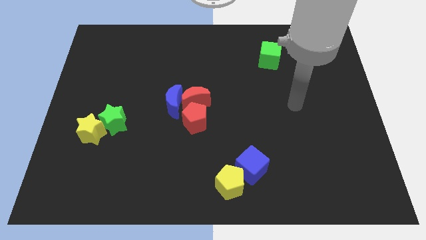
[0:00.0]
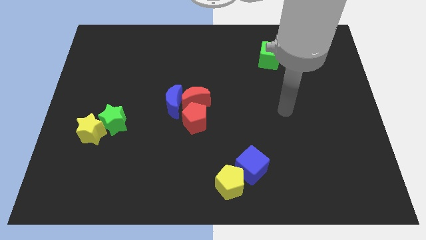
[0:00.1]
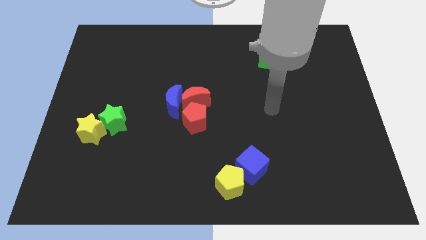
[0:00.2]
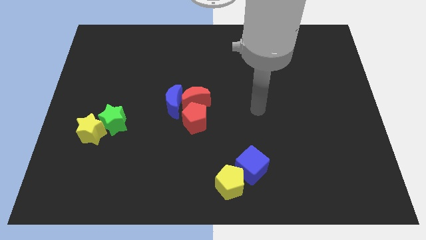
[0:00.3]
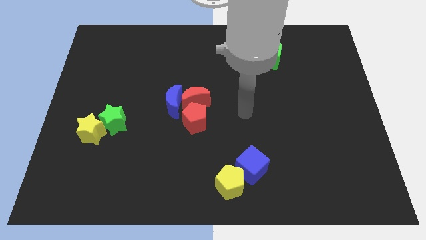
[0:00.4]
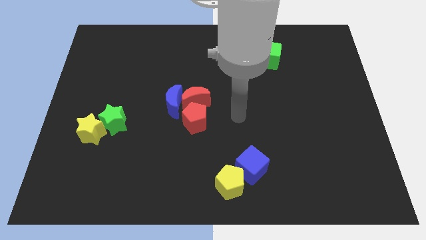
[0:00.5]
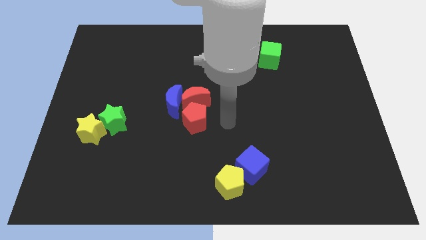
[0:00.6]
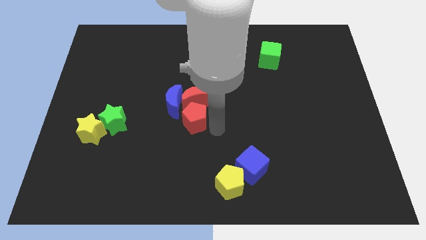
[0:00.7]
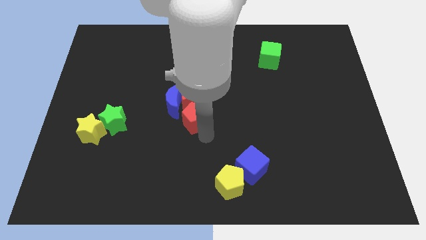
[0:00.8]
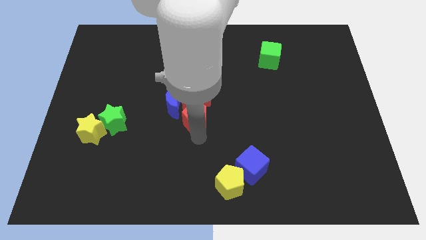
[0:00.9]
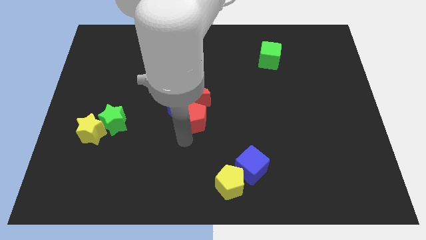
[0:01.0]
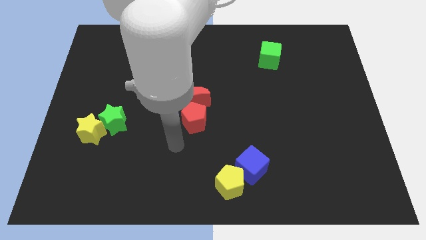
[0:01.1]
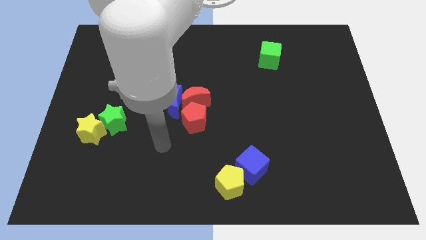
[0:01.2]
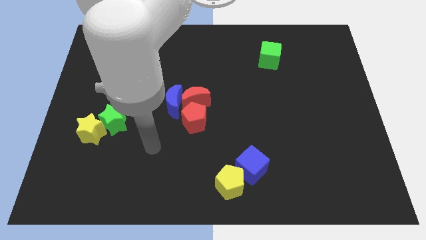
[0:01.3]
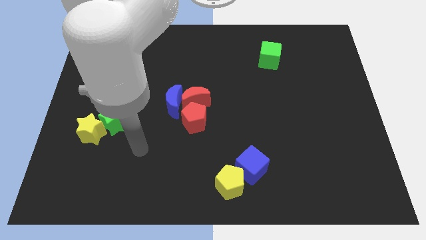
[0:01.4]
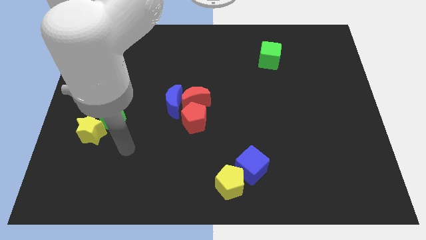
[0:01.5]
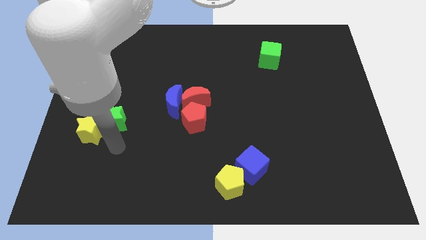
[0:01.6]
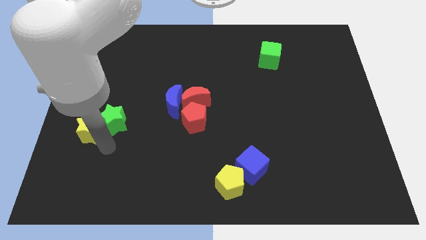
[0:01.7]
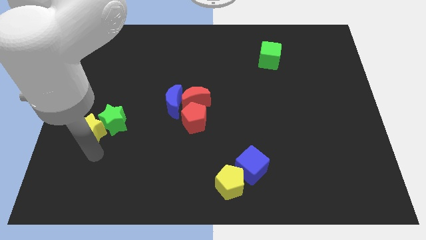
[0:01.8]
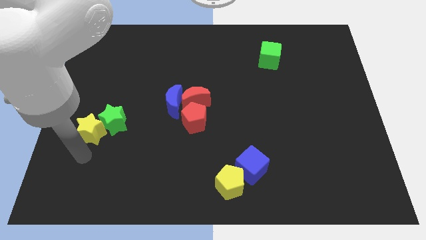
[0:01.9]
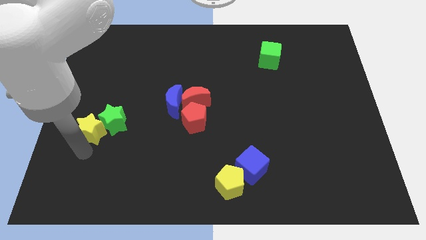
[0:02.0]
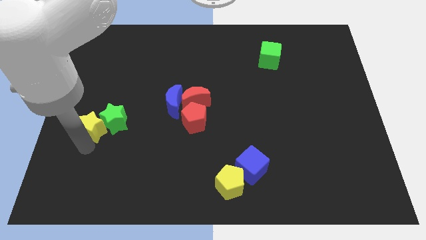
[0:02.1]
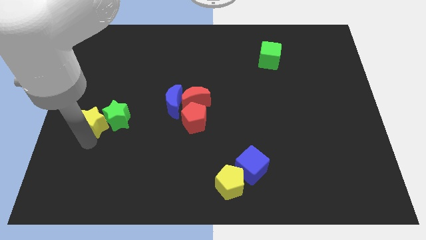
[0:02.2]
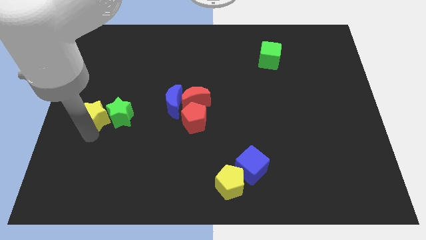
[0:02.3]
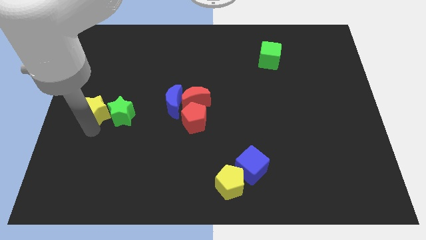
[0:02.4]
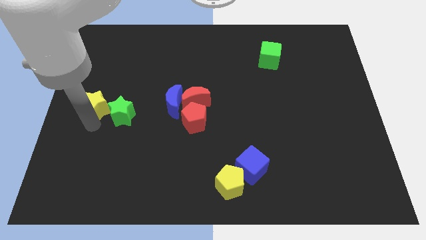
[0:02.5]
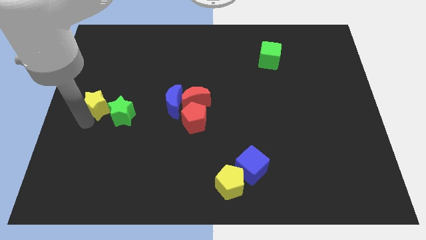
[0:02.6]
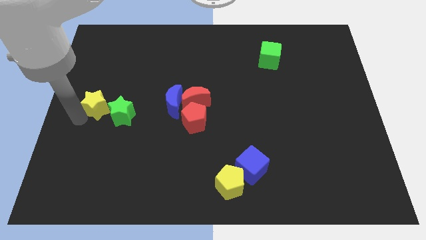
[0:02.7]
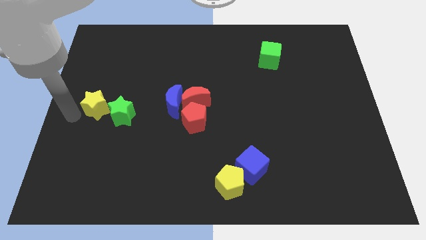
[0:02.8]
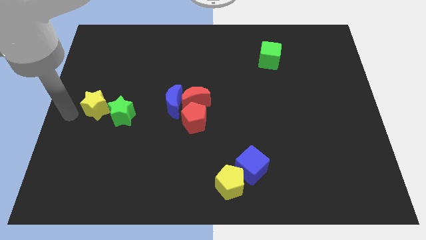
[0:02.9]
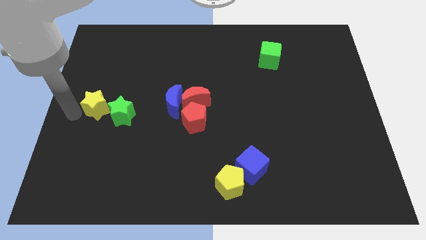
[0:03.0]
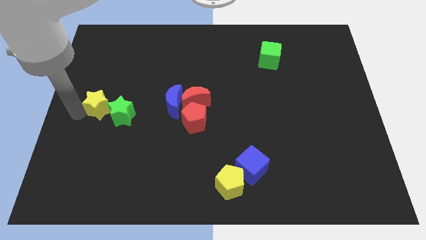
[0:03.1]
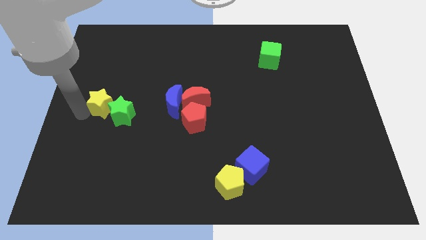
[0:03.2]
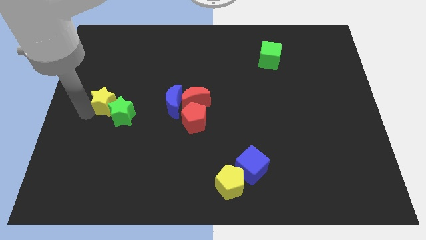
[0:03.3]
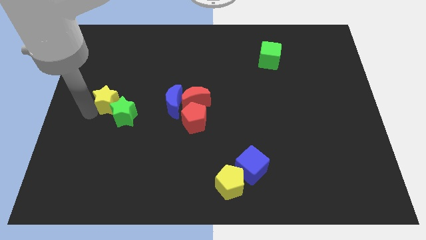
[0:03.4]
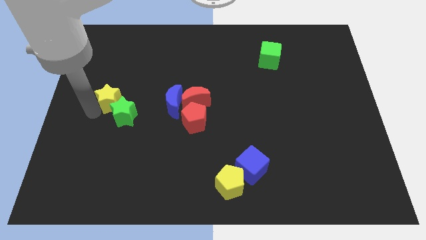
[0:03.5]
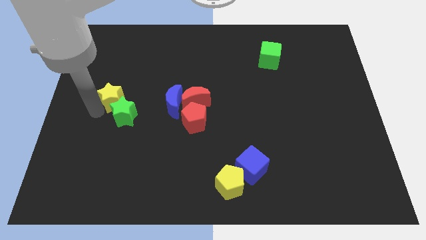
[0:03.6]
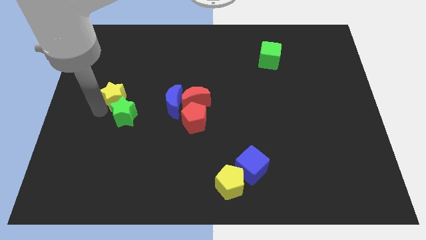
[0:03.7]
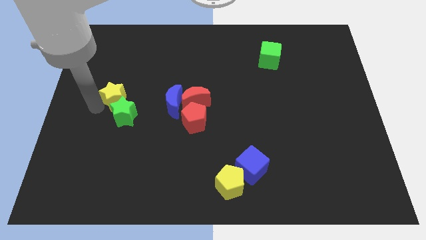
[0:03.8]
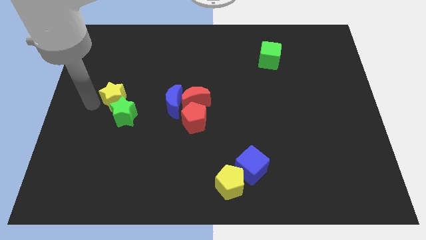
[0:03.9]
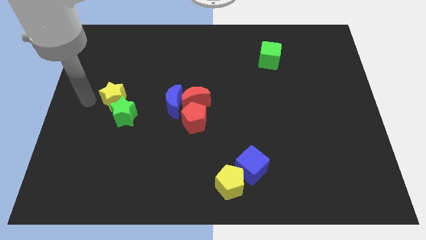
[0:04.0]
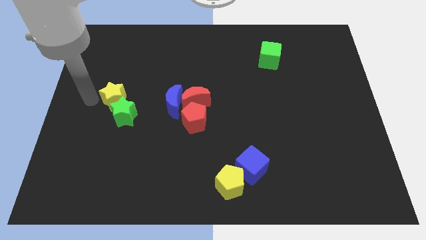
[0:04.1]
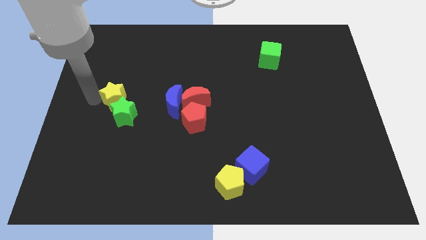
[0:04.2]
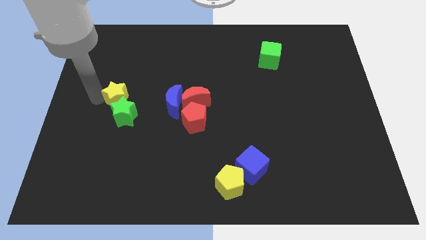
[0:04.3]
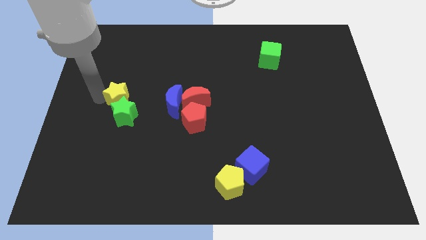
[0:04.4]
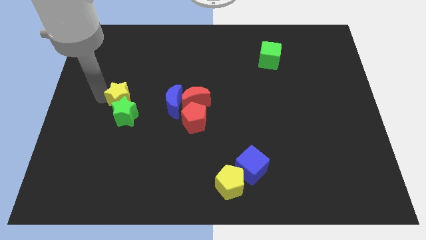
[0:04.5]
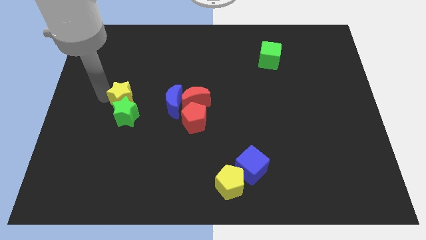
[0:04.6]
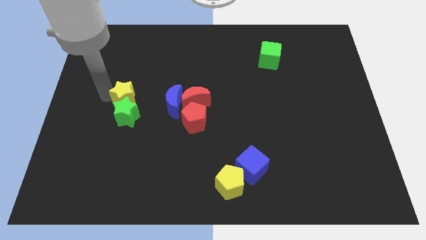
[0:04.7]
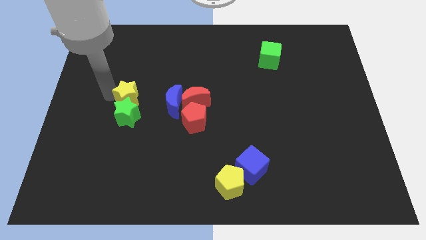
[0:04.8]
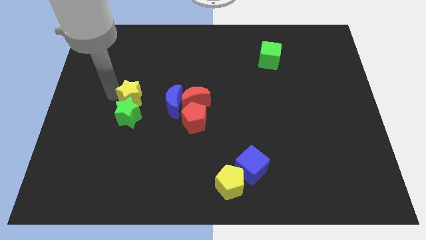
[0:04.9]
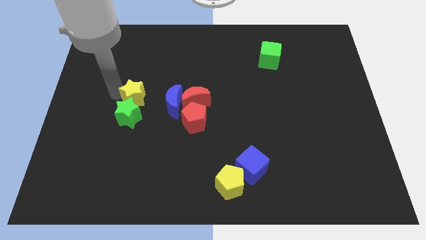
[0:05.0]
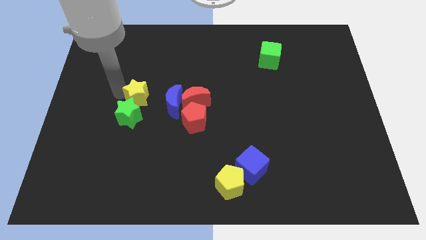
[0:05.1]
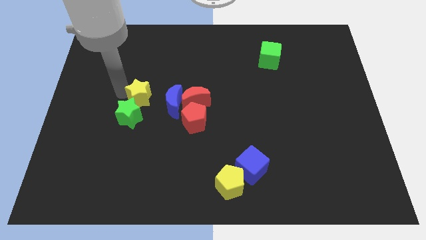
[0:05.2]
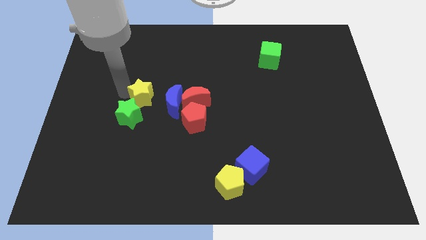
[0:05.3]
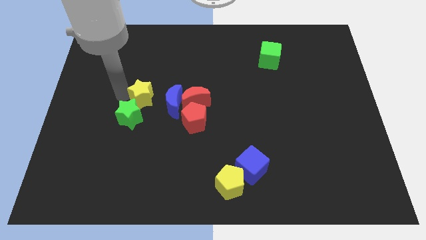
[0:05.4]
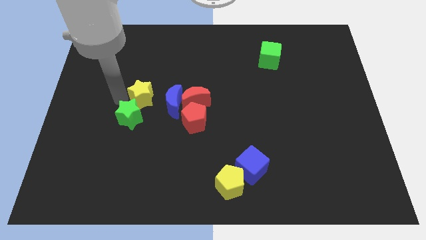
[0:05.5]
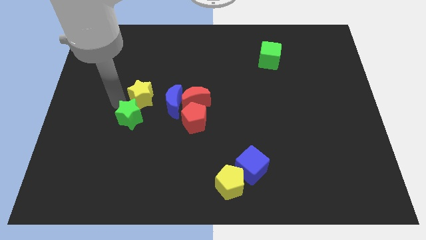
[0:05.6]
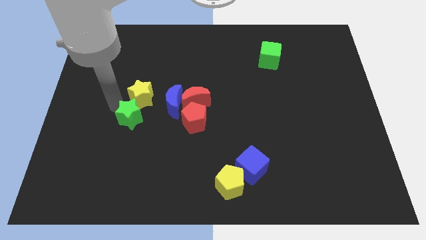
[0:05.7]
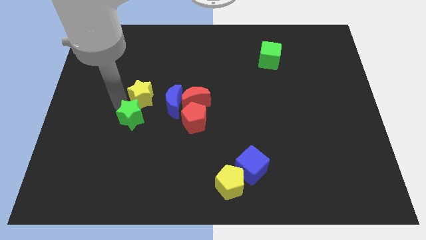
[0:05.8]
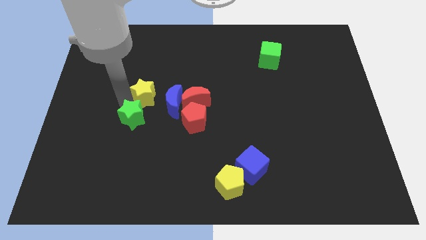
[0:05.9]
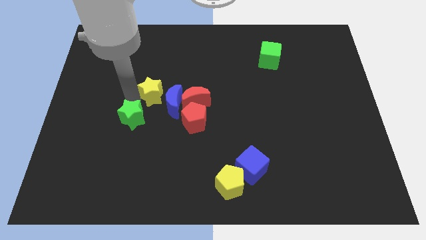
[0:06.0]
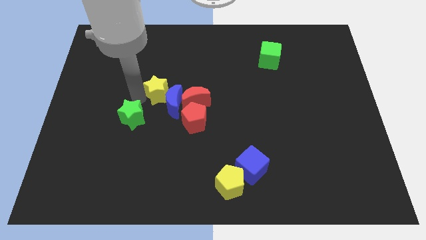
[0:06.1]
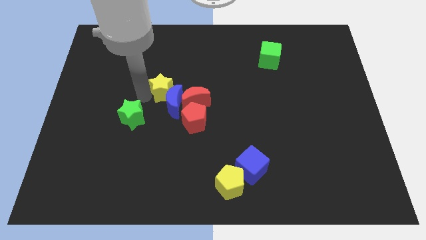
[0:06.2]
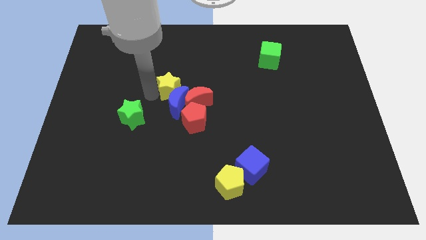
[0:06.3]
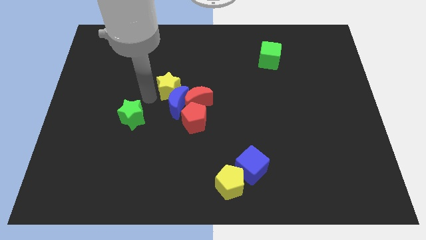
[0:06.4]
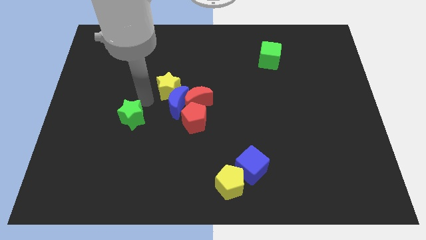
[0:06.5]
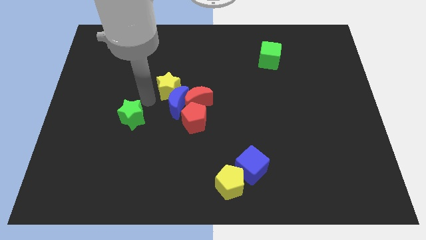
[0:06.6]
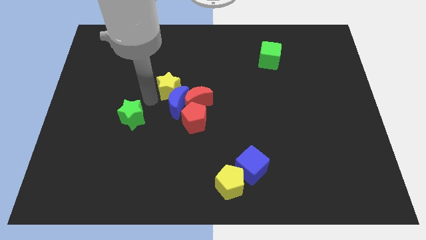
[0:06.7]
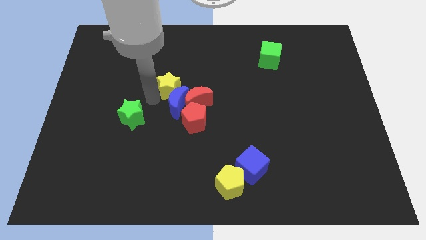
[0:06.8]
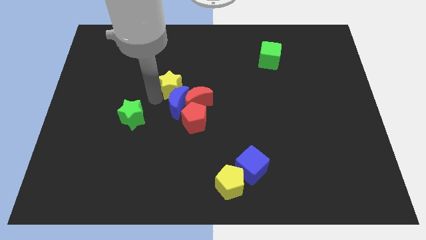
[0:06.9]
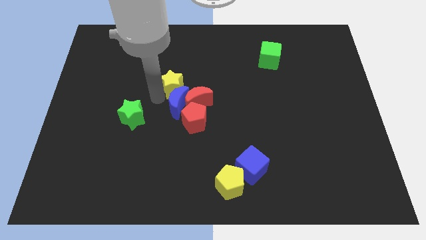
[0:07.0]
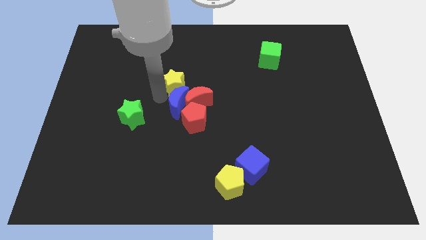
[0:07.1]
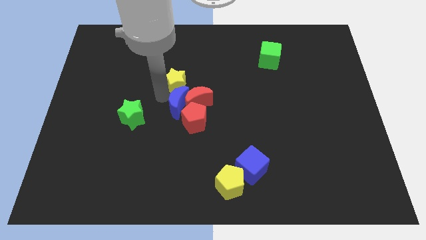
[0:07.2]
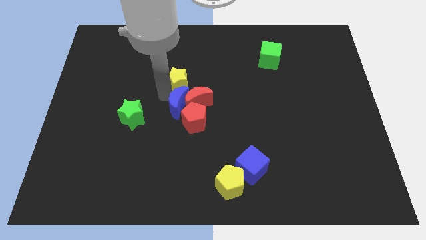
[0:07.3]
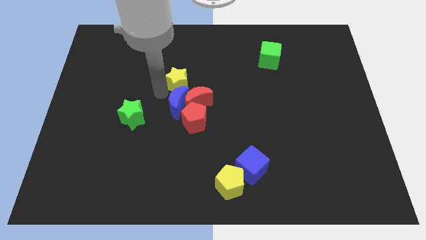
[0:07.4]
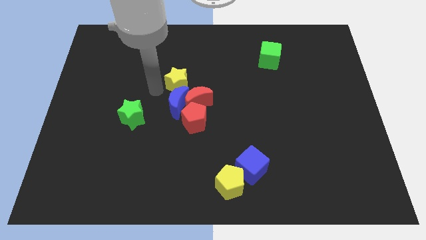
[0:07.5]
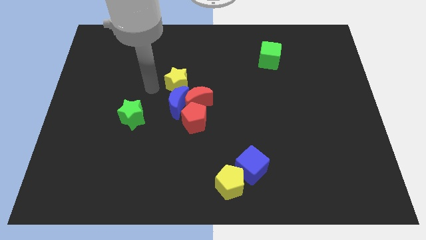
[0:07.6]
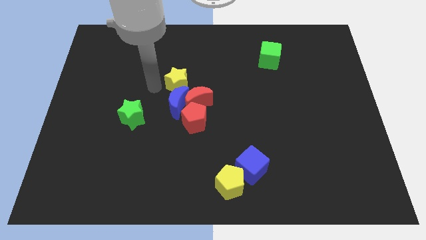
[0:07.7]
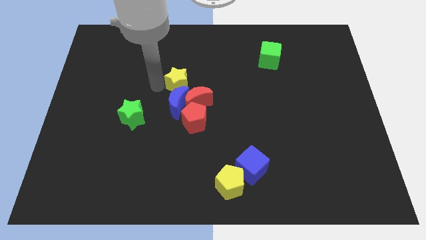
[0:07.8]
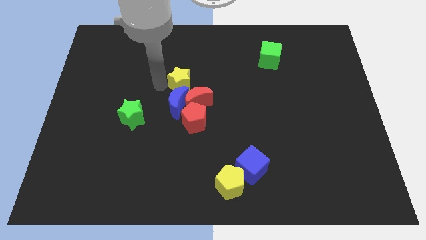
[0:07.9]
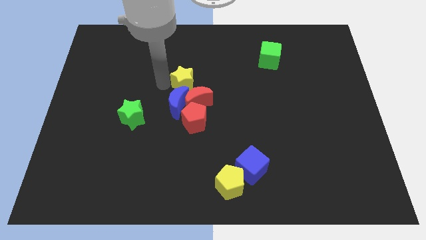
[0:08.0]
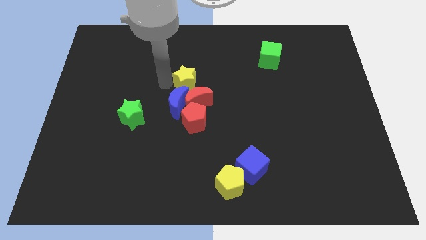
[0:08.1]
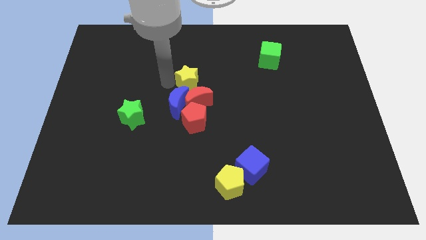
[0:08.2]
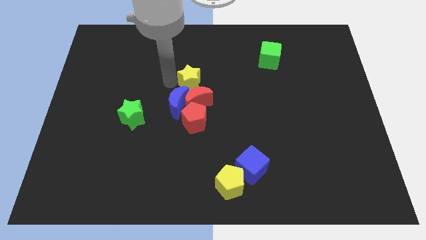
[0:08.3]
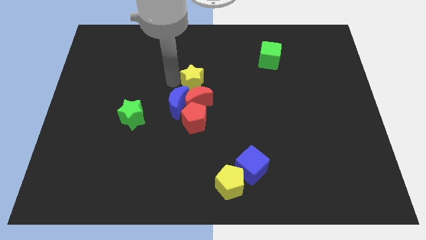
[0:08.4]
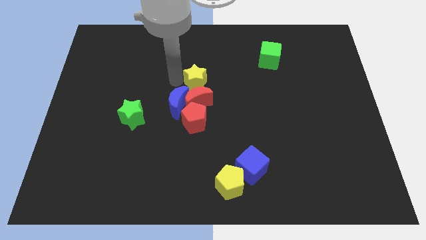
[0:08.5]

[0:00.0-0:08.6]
put the yellow star to the top right side of the red moon
